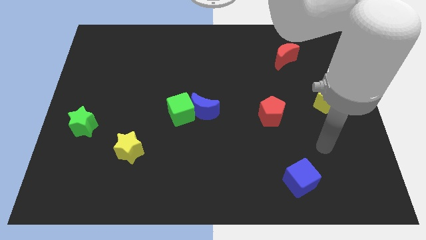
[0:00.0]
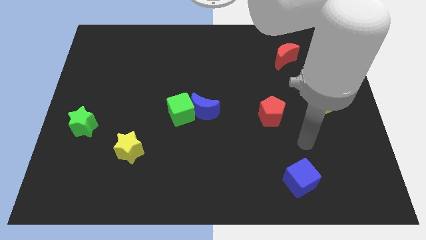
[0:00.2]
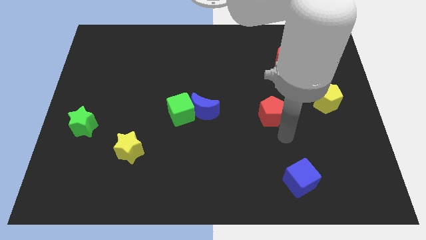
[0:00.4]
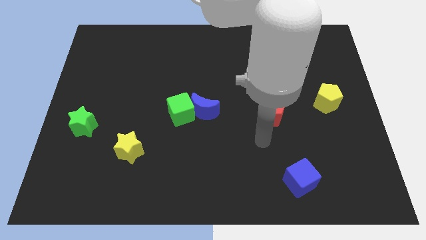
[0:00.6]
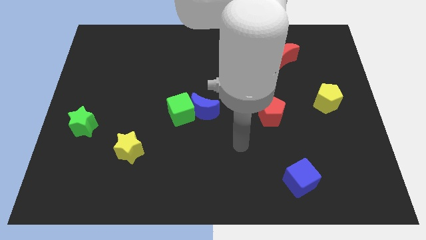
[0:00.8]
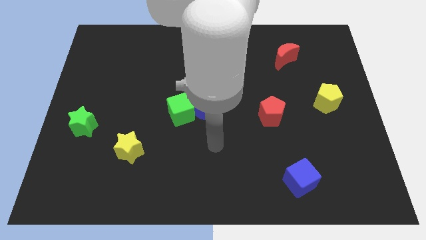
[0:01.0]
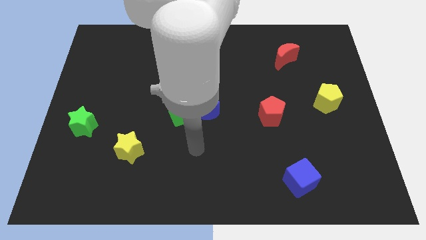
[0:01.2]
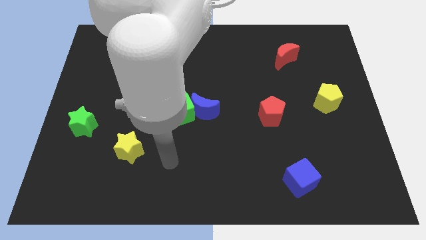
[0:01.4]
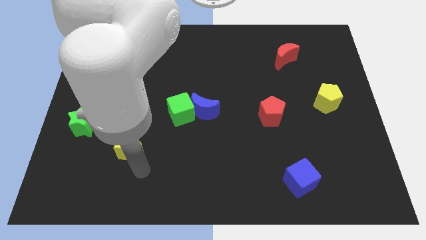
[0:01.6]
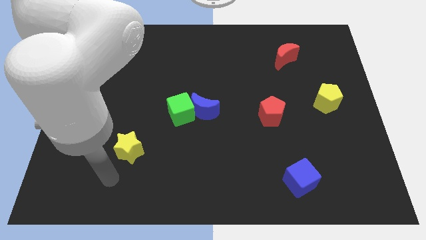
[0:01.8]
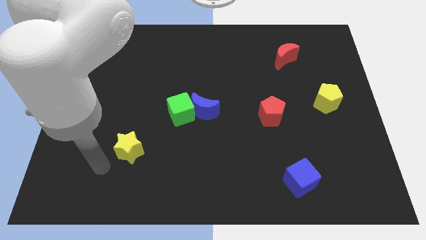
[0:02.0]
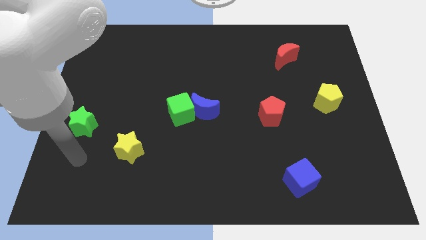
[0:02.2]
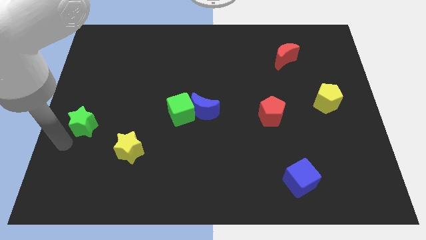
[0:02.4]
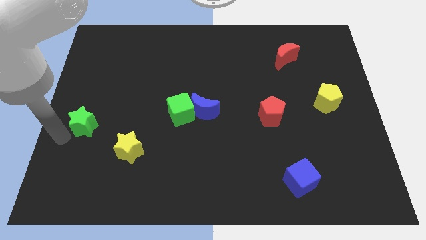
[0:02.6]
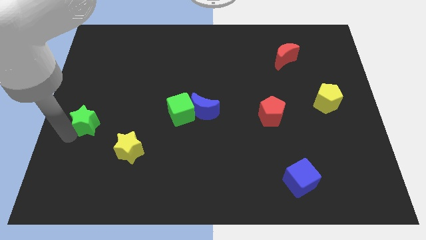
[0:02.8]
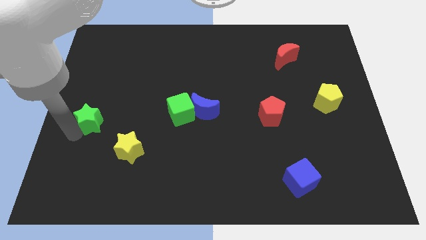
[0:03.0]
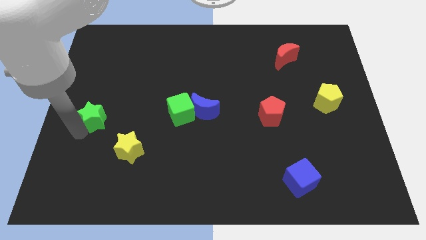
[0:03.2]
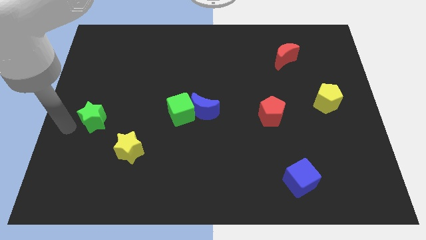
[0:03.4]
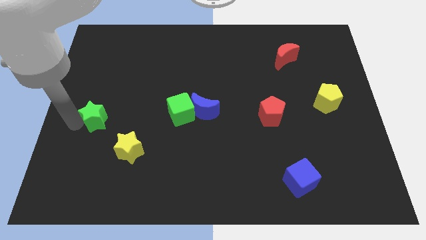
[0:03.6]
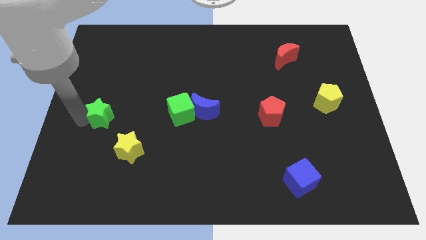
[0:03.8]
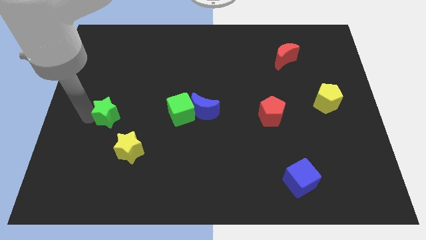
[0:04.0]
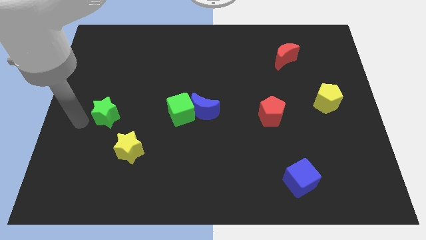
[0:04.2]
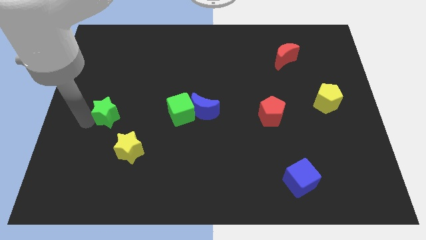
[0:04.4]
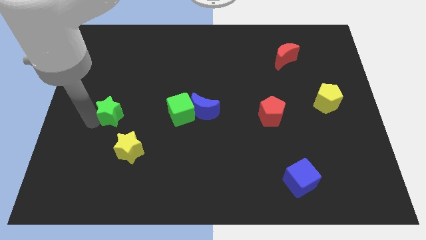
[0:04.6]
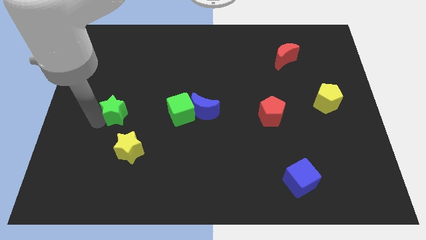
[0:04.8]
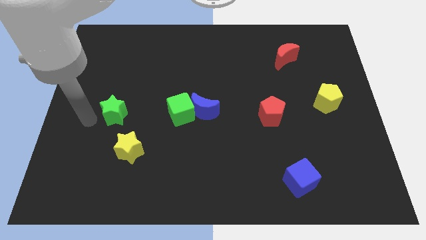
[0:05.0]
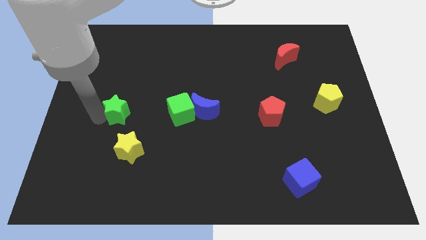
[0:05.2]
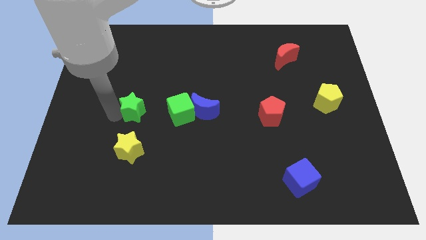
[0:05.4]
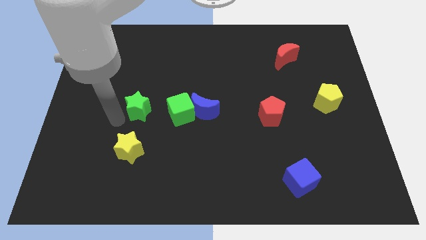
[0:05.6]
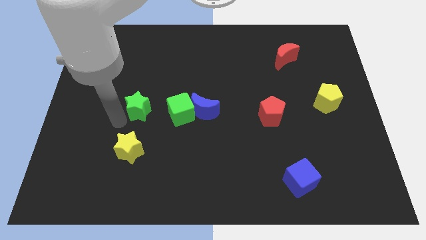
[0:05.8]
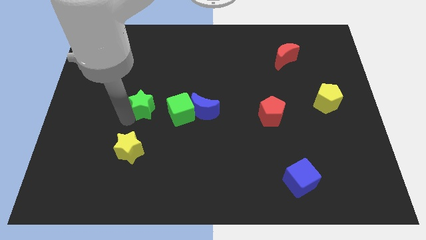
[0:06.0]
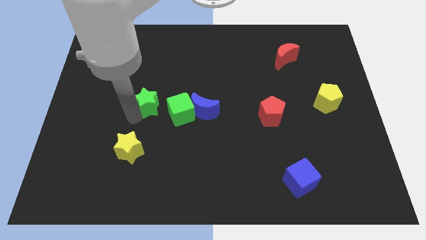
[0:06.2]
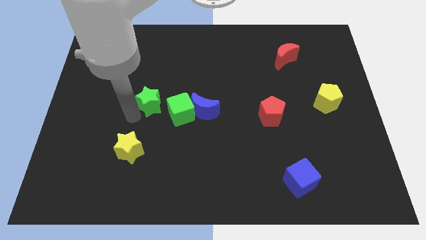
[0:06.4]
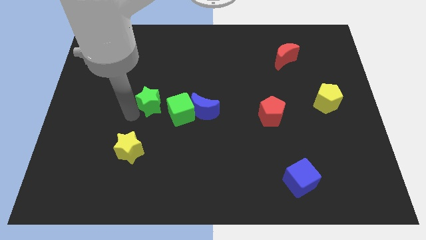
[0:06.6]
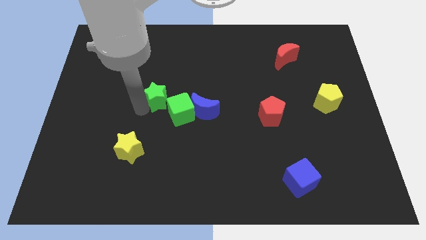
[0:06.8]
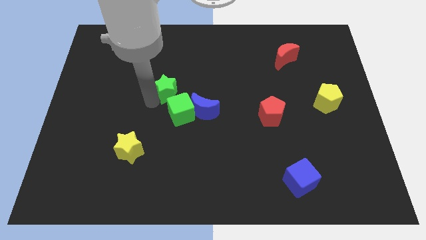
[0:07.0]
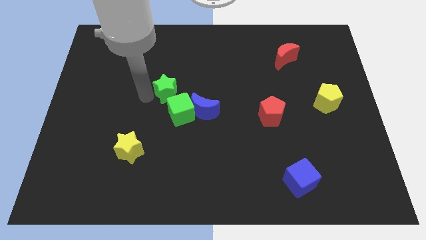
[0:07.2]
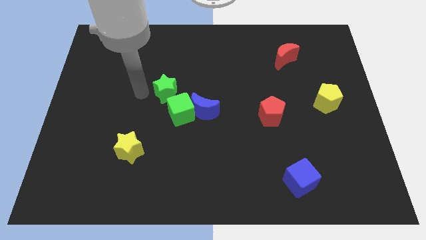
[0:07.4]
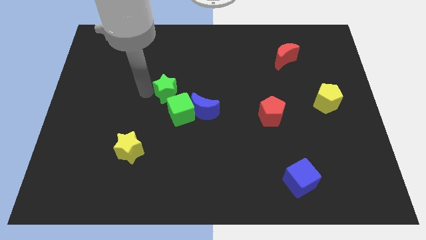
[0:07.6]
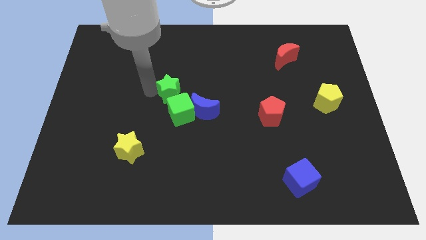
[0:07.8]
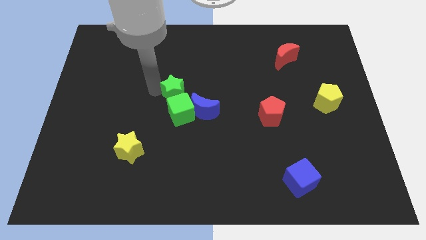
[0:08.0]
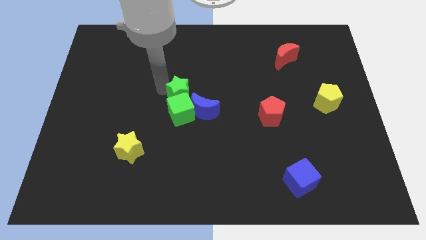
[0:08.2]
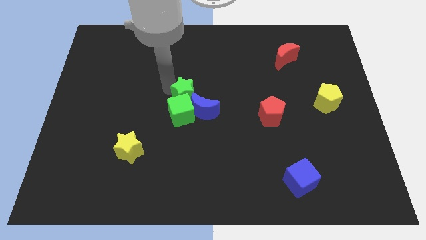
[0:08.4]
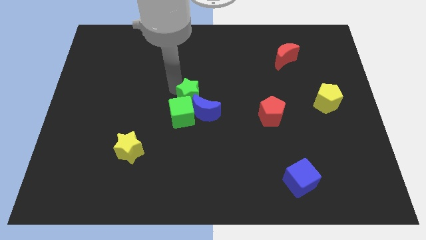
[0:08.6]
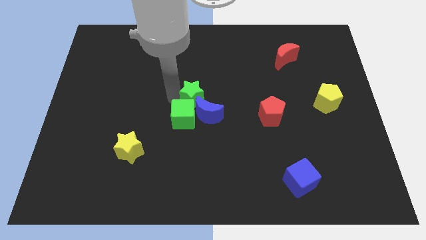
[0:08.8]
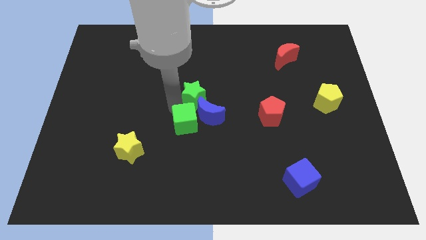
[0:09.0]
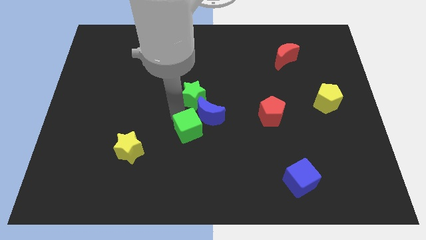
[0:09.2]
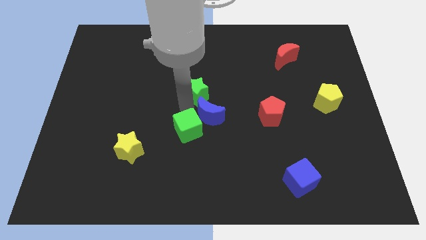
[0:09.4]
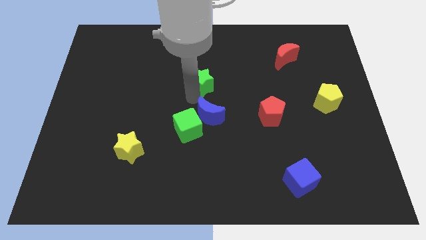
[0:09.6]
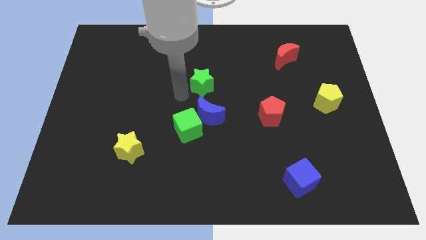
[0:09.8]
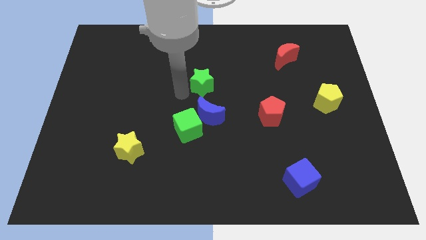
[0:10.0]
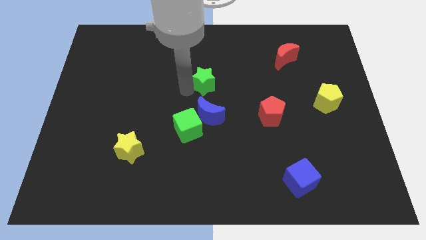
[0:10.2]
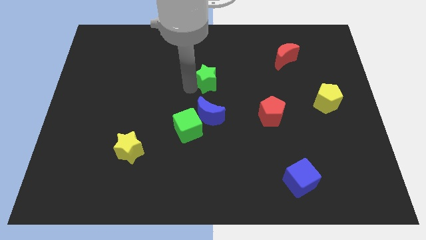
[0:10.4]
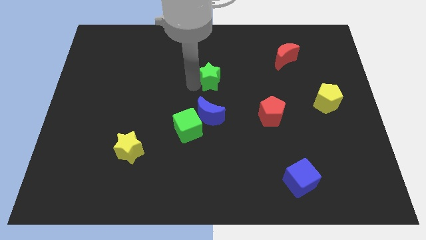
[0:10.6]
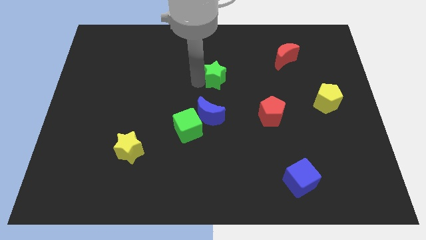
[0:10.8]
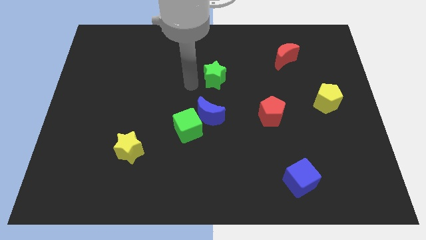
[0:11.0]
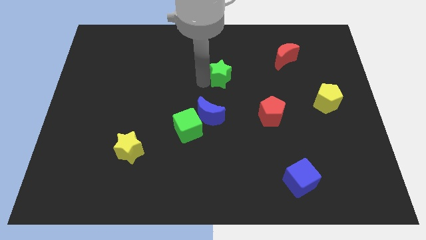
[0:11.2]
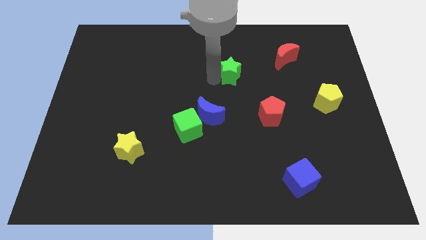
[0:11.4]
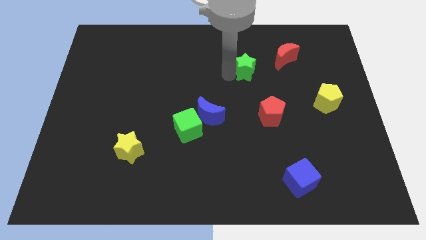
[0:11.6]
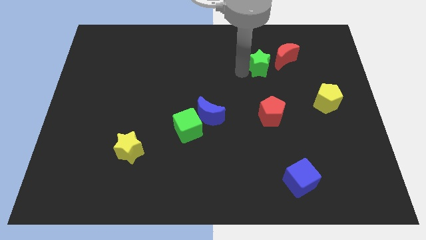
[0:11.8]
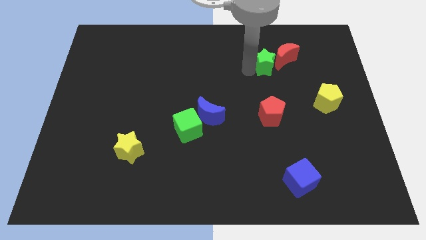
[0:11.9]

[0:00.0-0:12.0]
slide the green star towards the red moon

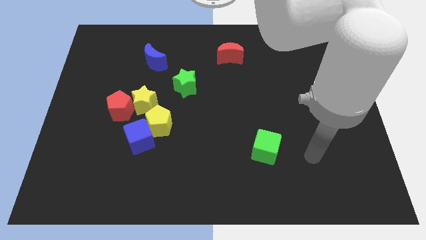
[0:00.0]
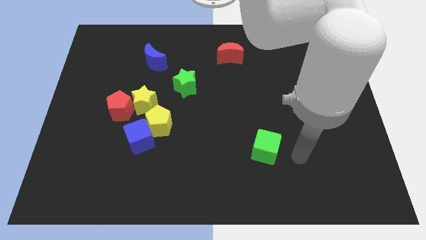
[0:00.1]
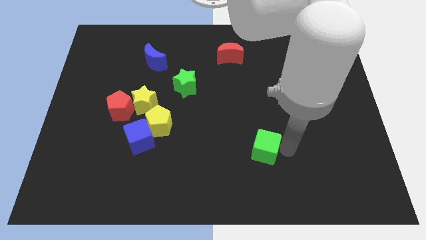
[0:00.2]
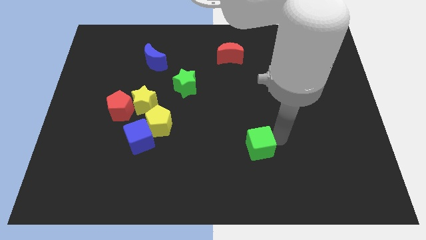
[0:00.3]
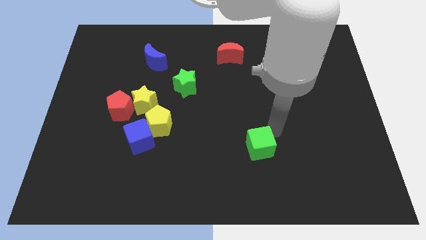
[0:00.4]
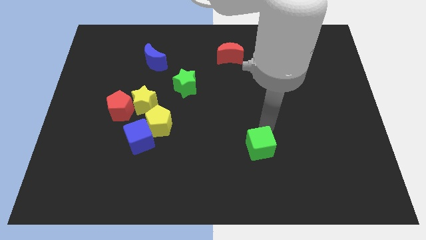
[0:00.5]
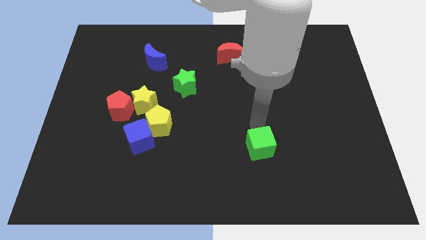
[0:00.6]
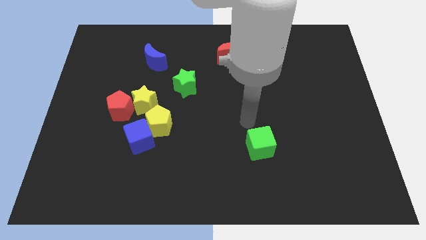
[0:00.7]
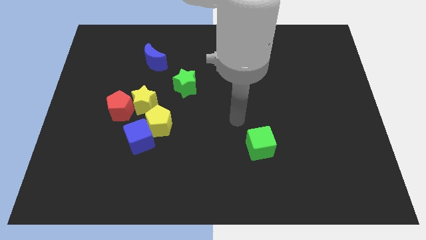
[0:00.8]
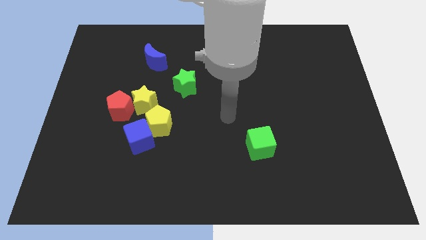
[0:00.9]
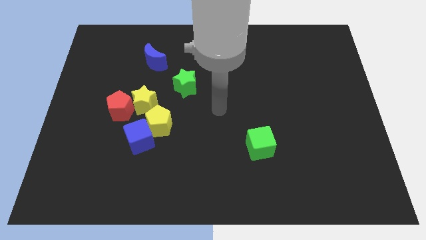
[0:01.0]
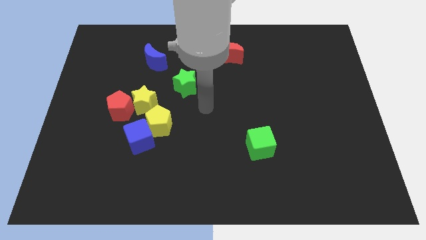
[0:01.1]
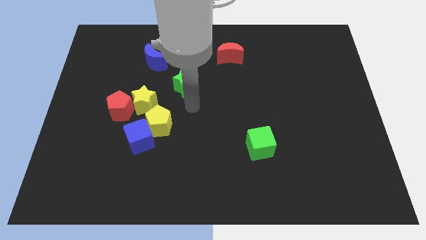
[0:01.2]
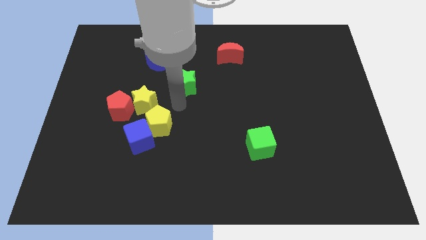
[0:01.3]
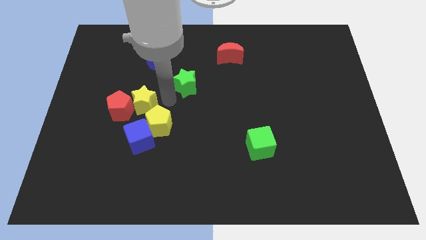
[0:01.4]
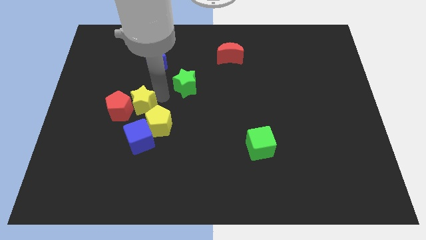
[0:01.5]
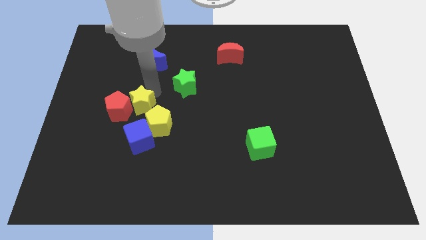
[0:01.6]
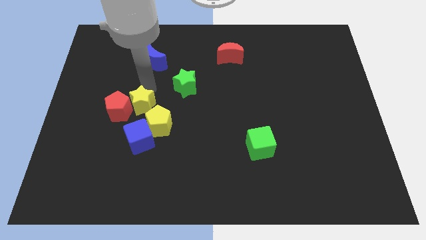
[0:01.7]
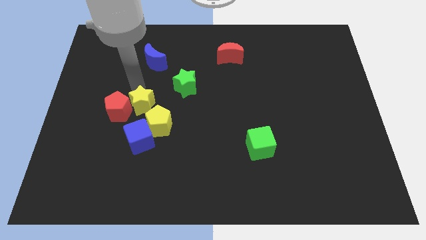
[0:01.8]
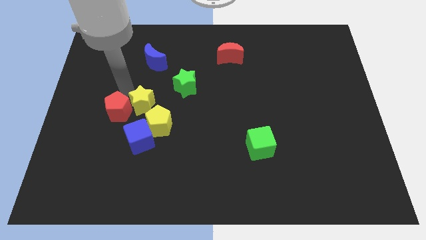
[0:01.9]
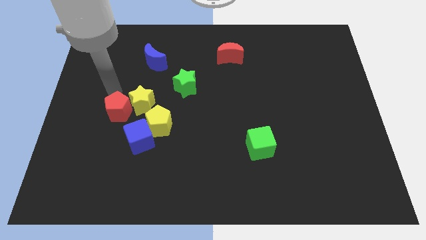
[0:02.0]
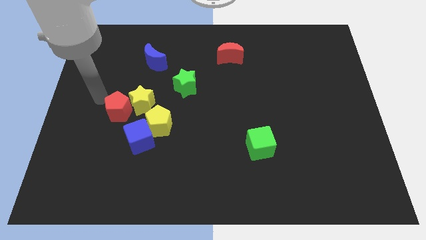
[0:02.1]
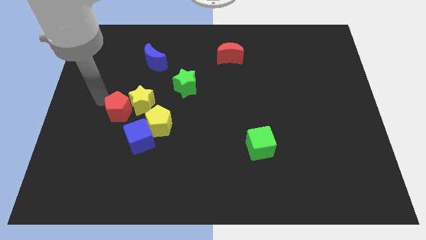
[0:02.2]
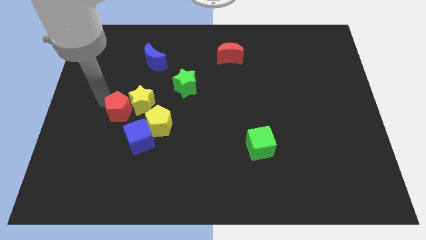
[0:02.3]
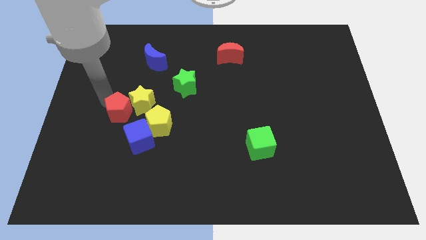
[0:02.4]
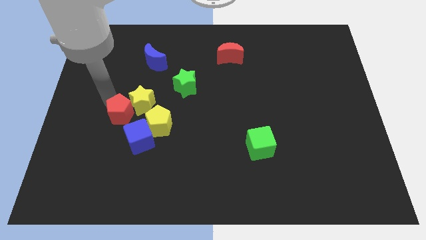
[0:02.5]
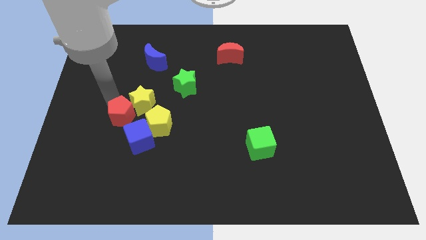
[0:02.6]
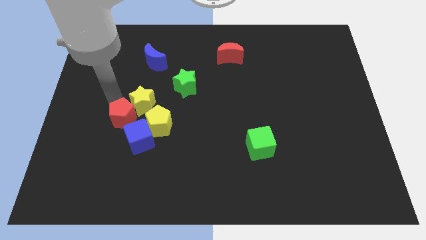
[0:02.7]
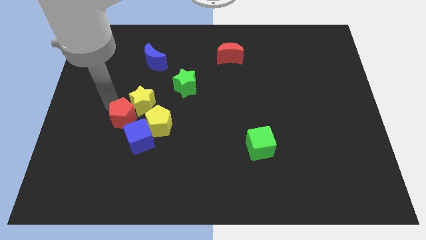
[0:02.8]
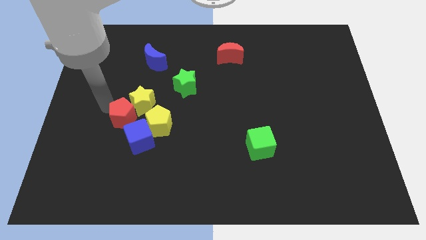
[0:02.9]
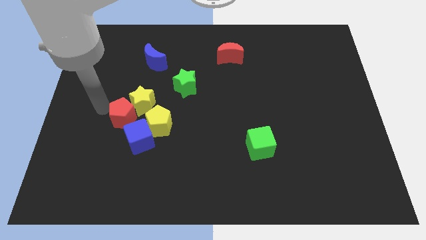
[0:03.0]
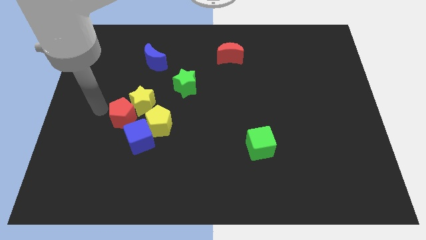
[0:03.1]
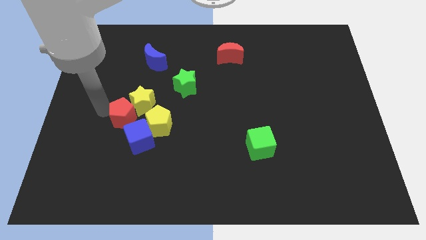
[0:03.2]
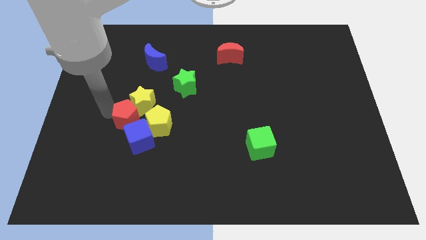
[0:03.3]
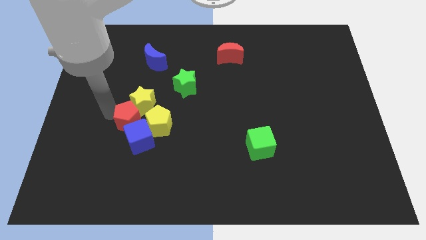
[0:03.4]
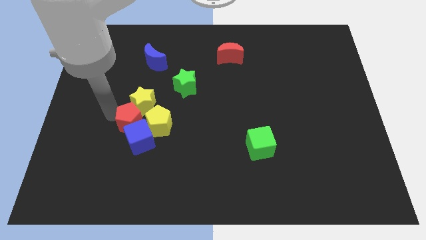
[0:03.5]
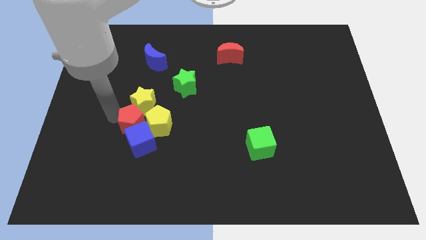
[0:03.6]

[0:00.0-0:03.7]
slide the red pentagon to the yellow pentagon
